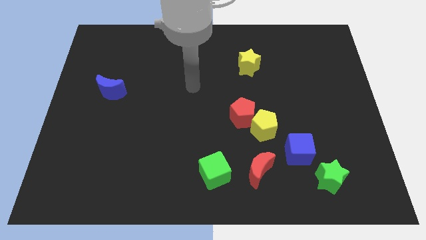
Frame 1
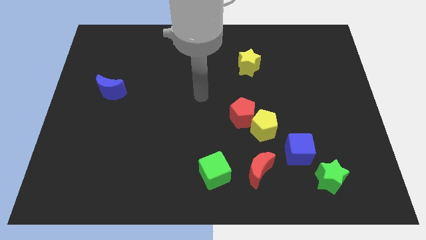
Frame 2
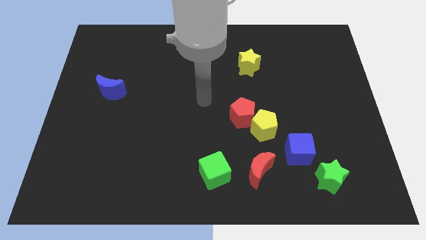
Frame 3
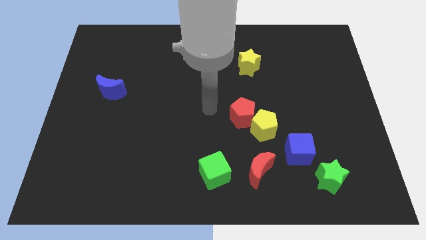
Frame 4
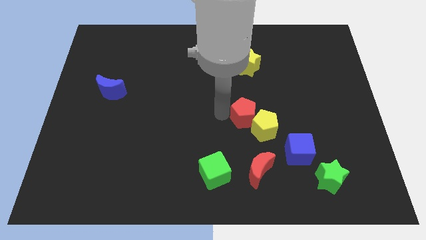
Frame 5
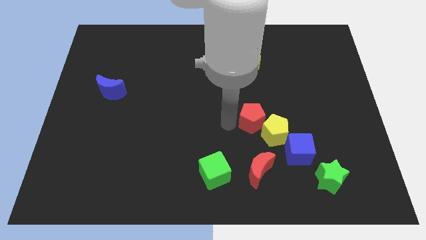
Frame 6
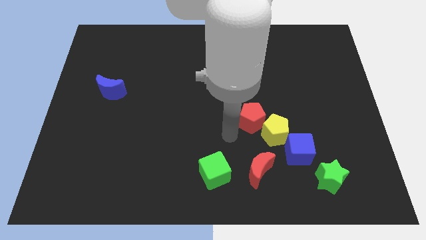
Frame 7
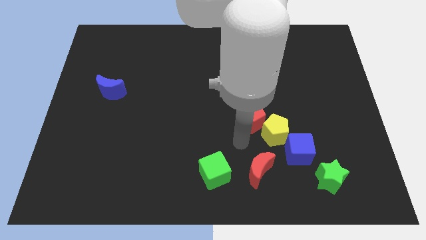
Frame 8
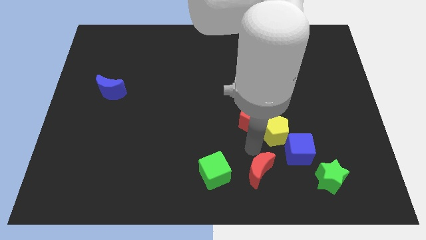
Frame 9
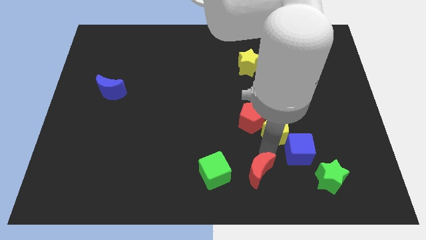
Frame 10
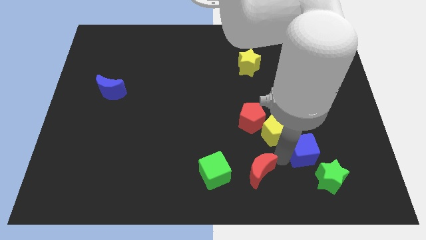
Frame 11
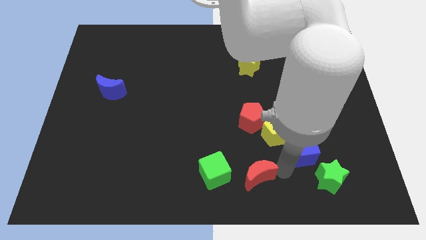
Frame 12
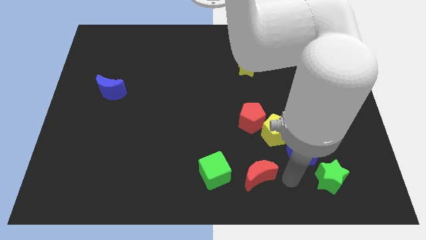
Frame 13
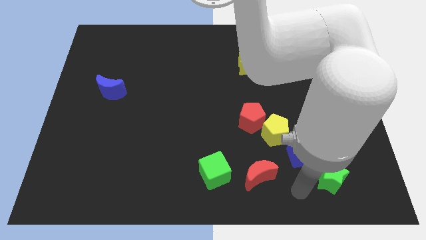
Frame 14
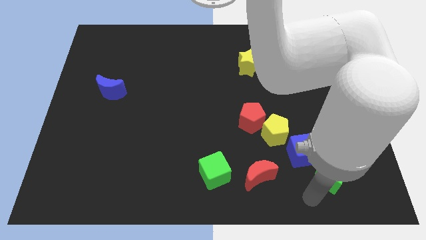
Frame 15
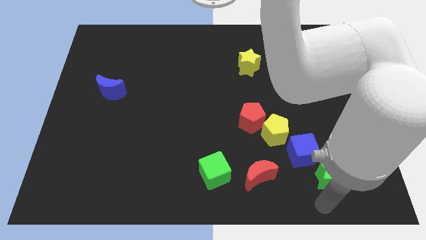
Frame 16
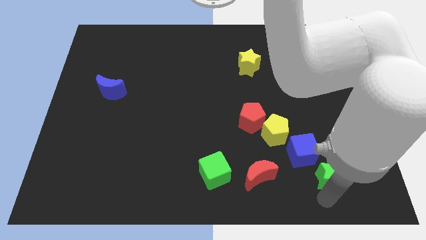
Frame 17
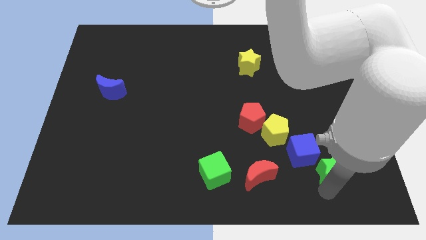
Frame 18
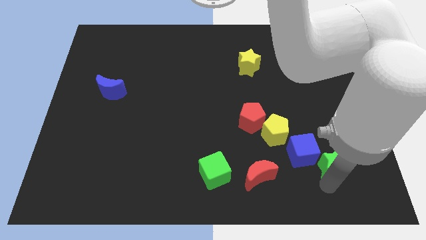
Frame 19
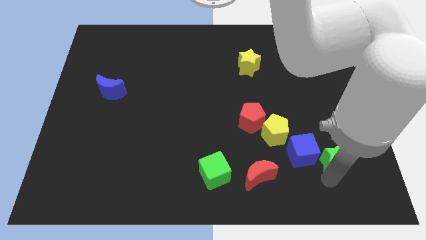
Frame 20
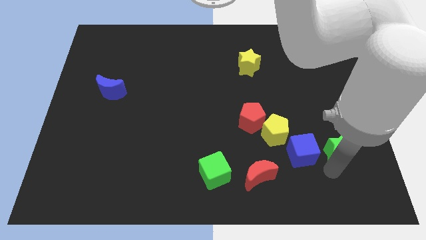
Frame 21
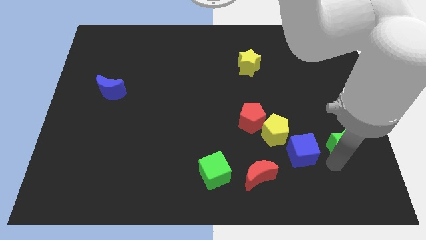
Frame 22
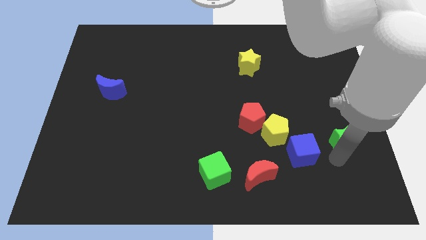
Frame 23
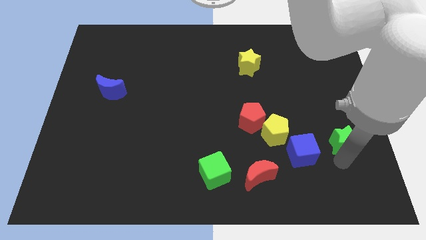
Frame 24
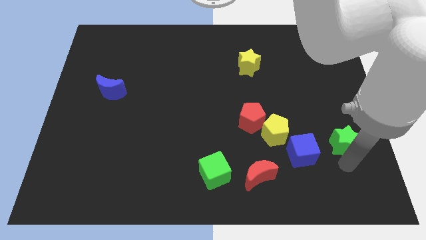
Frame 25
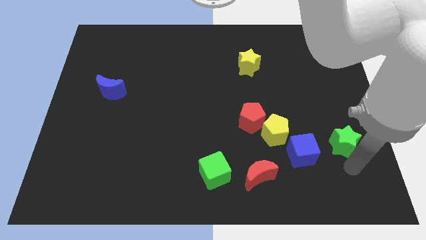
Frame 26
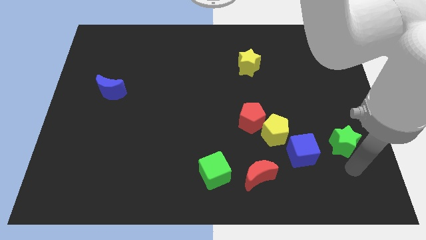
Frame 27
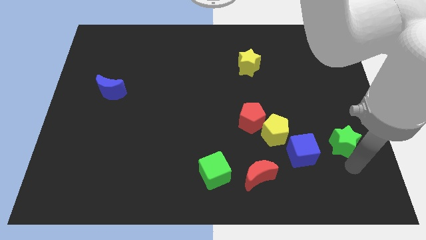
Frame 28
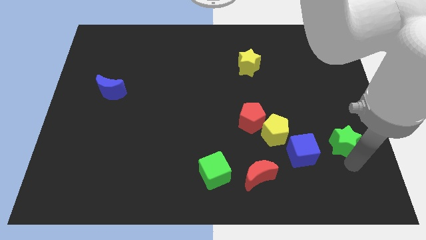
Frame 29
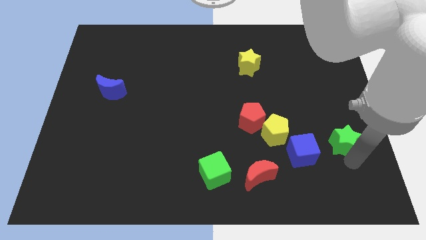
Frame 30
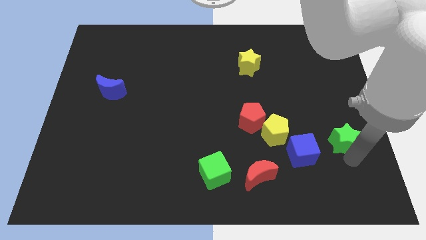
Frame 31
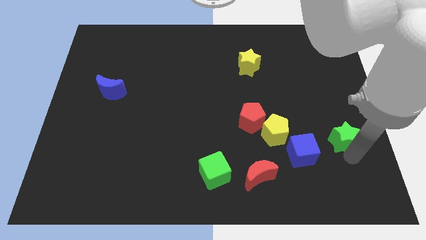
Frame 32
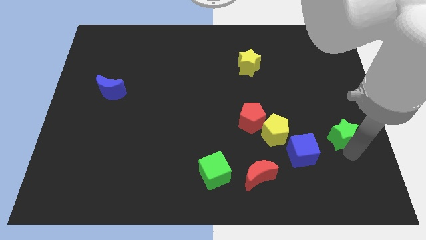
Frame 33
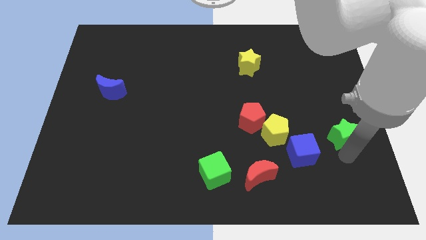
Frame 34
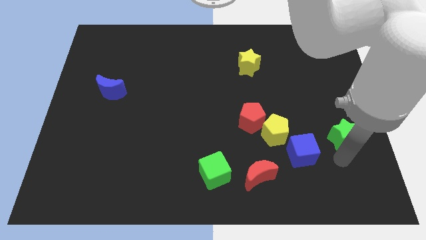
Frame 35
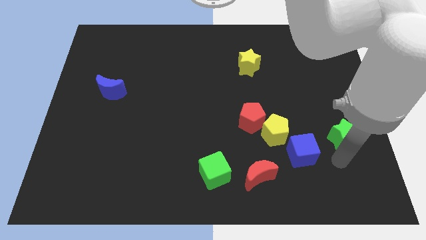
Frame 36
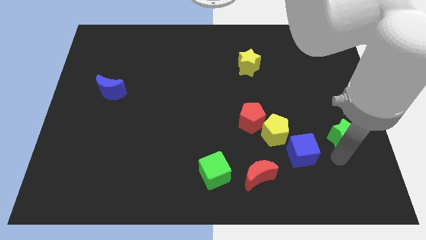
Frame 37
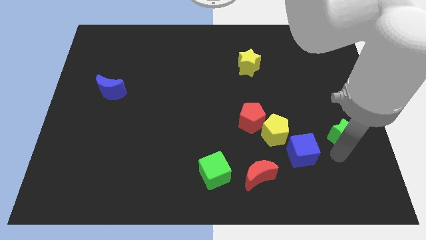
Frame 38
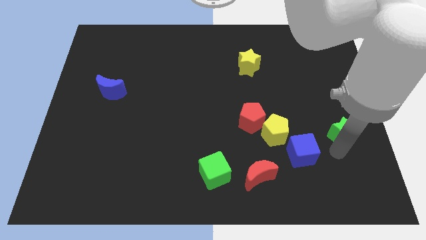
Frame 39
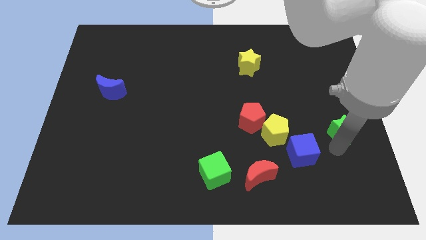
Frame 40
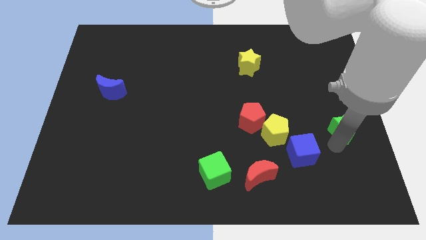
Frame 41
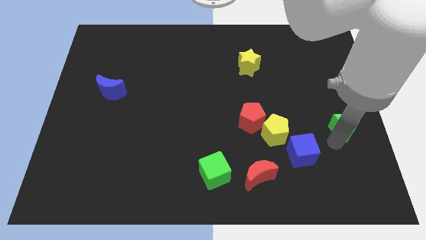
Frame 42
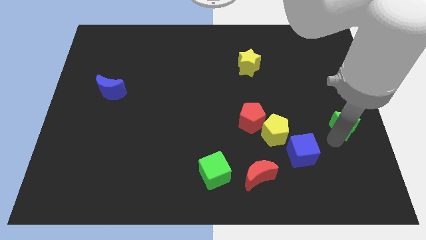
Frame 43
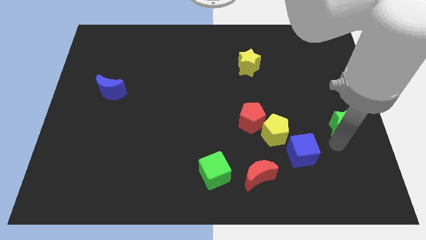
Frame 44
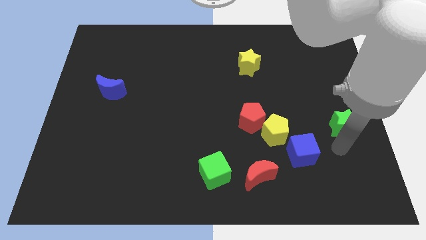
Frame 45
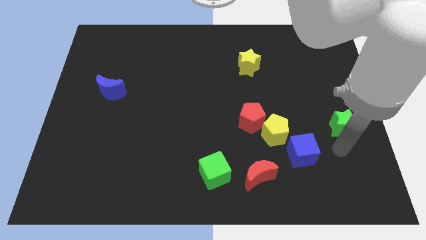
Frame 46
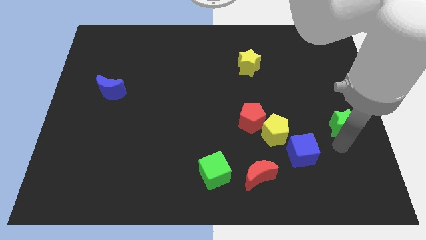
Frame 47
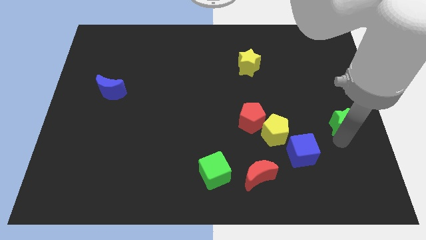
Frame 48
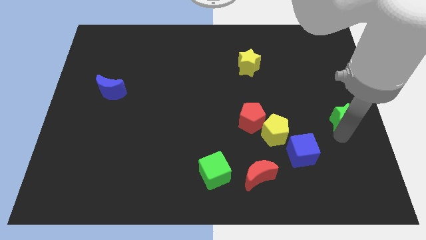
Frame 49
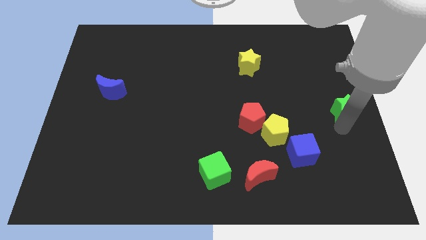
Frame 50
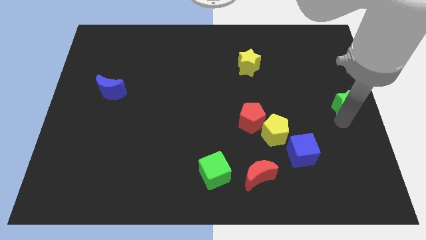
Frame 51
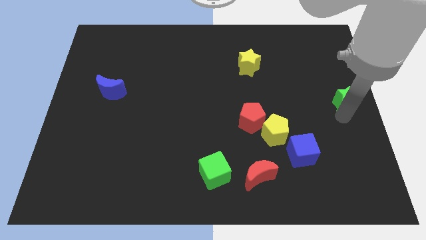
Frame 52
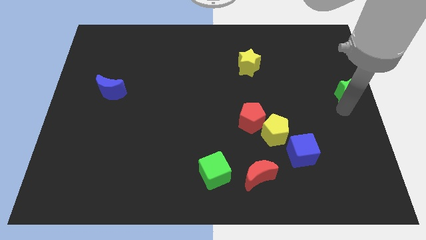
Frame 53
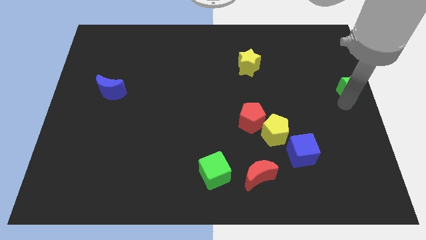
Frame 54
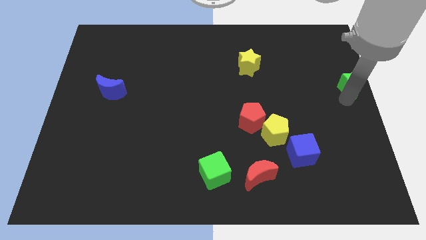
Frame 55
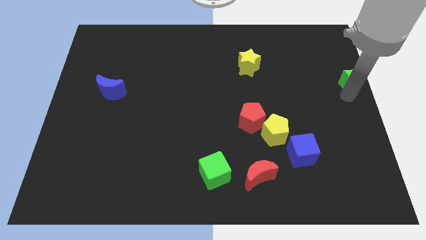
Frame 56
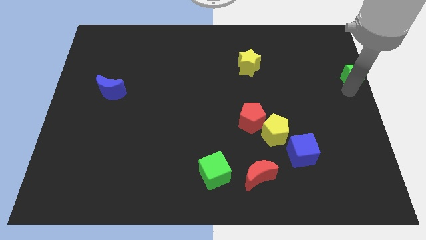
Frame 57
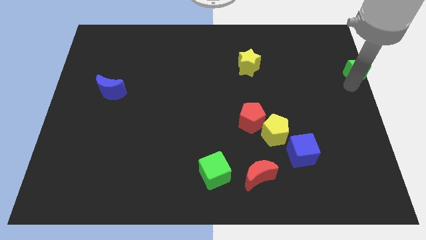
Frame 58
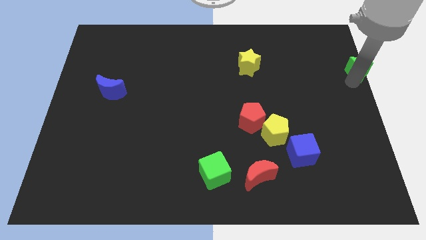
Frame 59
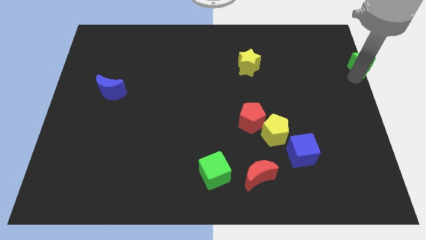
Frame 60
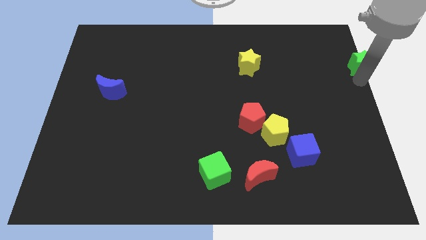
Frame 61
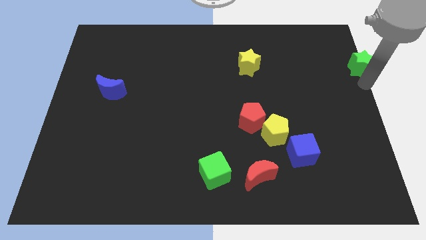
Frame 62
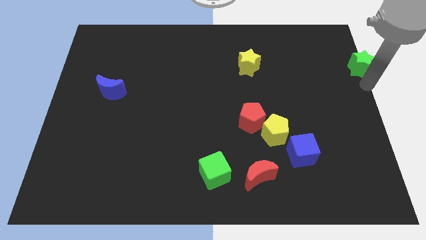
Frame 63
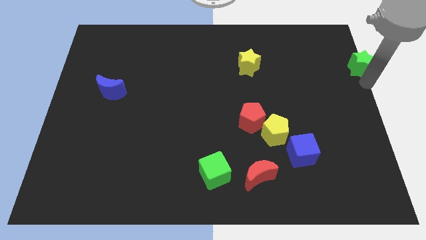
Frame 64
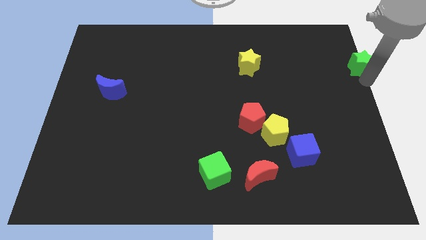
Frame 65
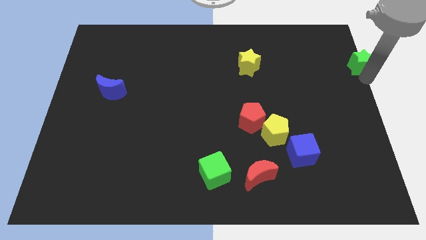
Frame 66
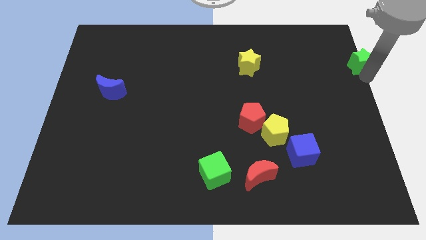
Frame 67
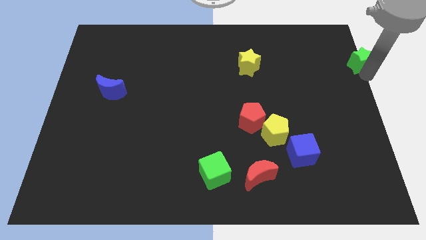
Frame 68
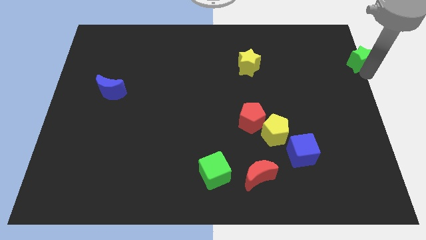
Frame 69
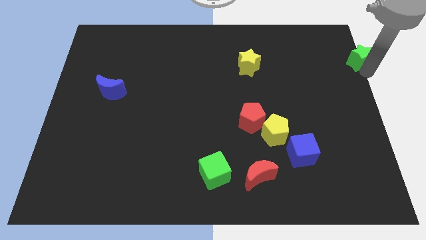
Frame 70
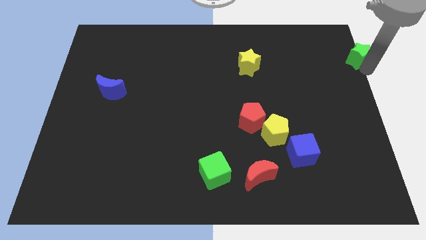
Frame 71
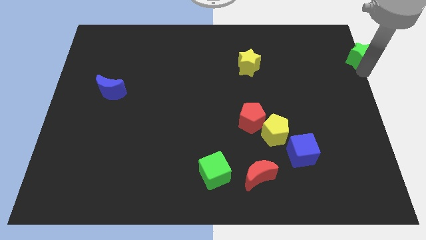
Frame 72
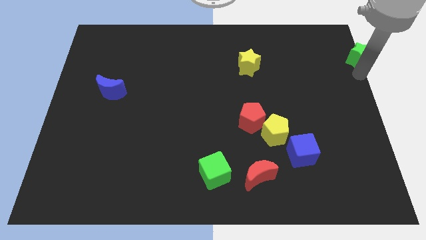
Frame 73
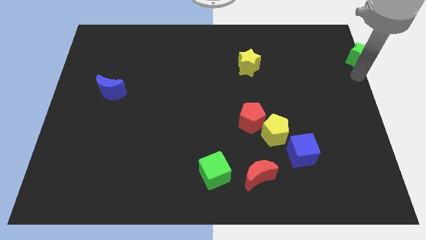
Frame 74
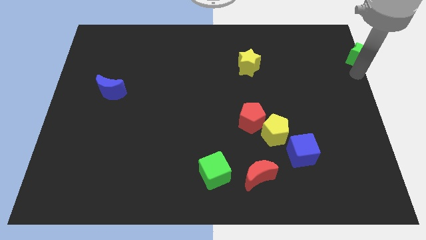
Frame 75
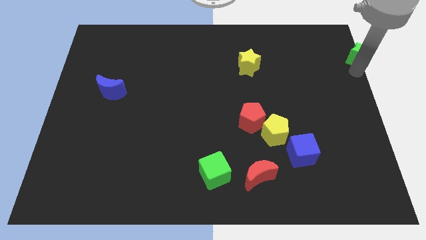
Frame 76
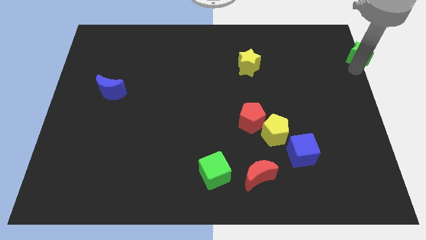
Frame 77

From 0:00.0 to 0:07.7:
slide the green star to the top right
